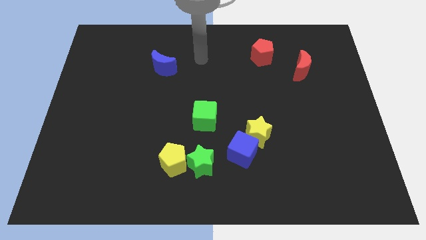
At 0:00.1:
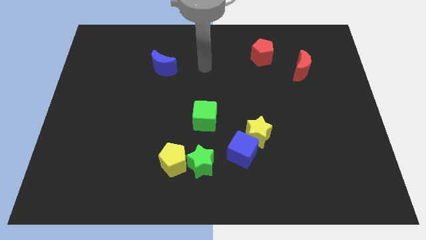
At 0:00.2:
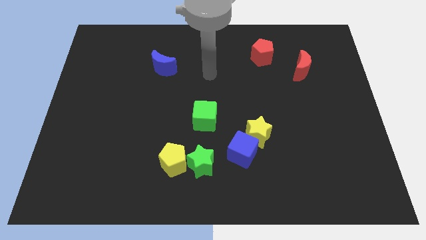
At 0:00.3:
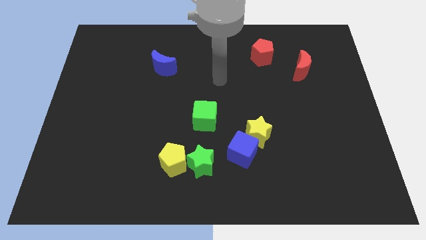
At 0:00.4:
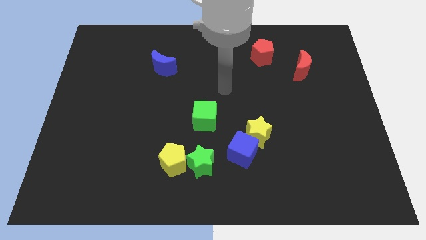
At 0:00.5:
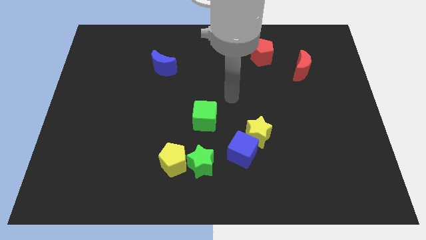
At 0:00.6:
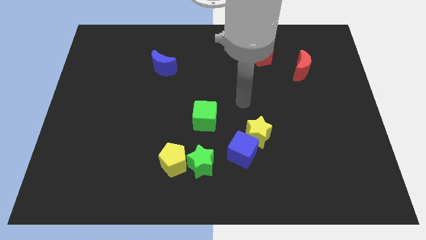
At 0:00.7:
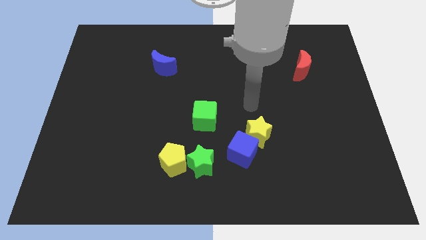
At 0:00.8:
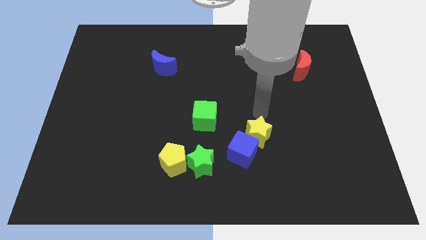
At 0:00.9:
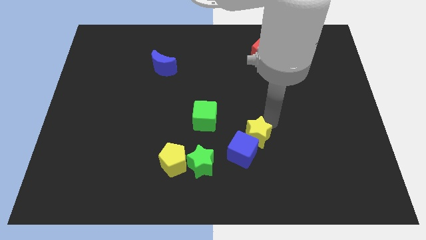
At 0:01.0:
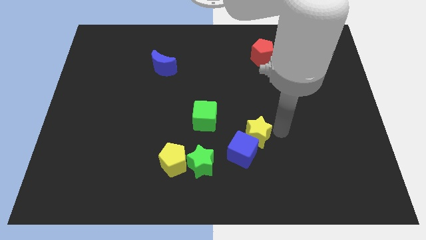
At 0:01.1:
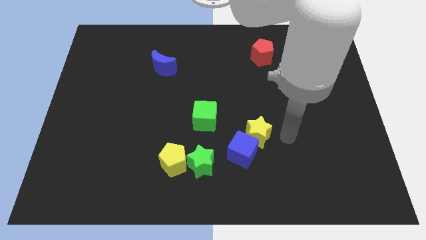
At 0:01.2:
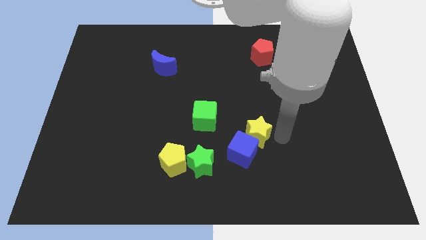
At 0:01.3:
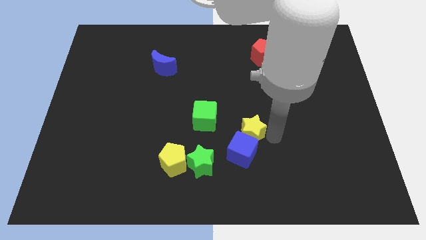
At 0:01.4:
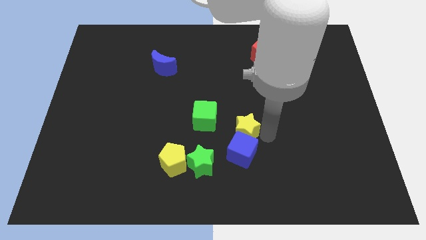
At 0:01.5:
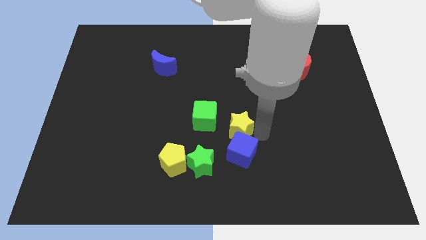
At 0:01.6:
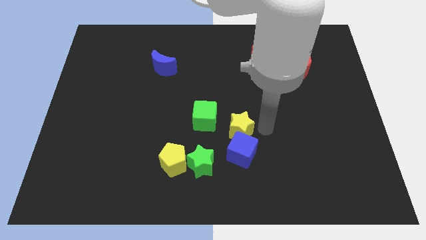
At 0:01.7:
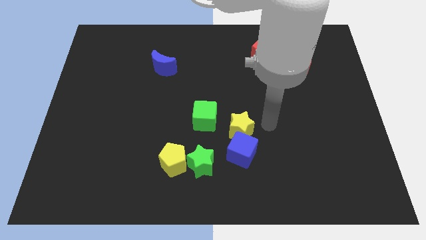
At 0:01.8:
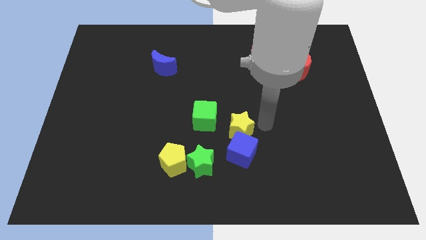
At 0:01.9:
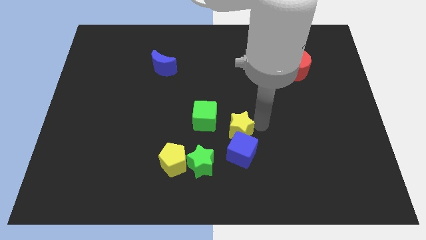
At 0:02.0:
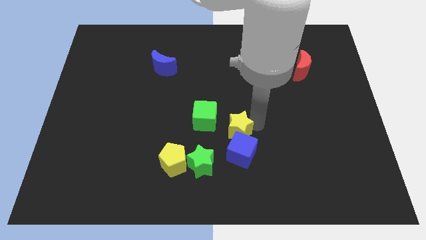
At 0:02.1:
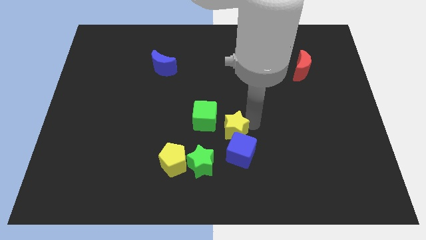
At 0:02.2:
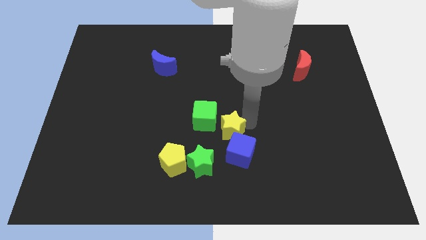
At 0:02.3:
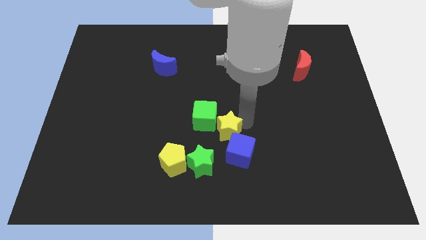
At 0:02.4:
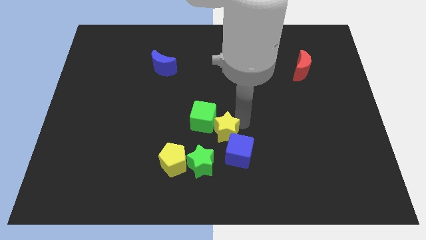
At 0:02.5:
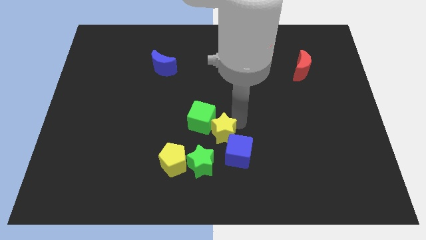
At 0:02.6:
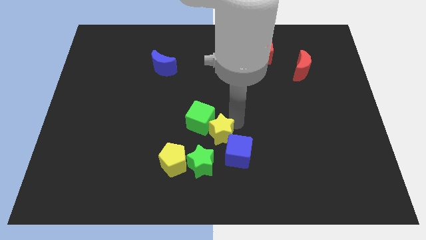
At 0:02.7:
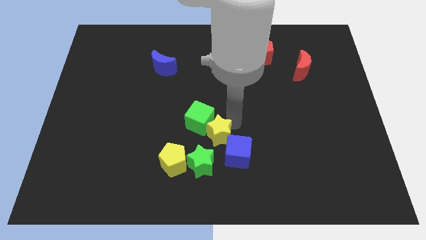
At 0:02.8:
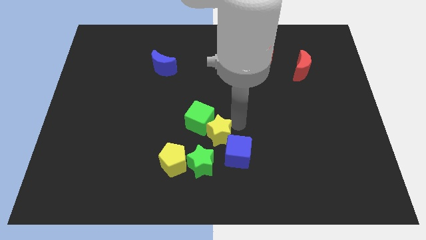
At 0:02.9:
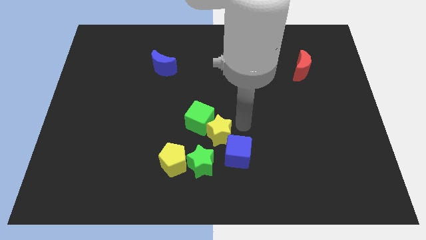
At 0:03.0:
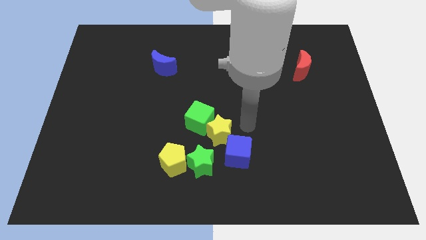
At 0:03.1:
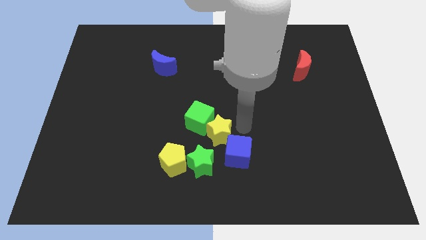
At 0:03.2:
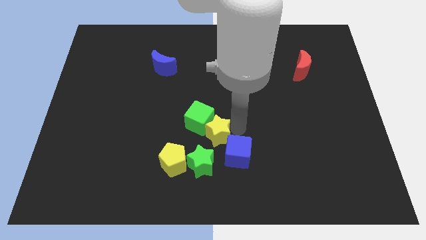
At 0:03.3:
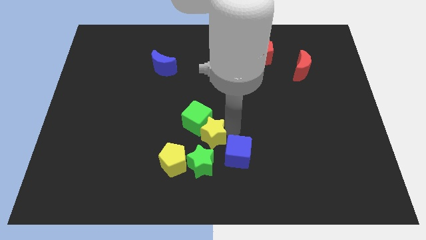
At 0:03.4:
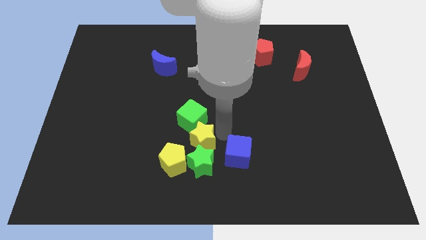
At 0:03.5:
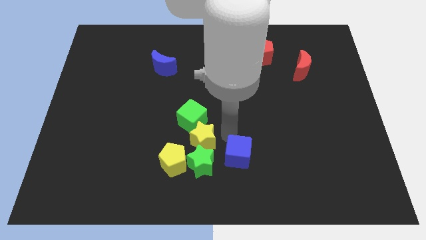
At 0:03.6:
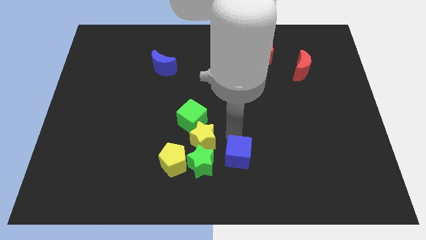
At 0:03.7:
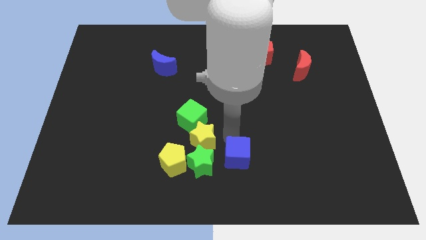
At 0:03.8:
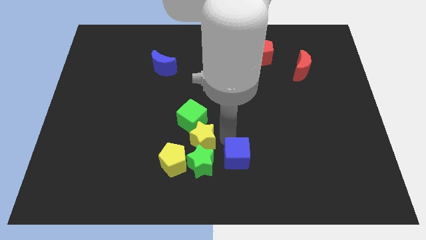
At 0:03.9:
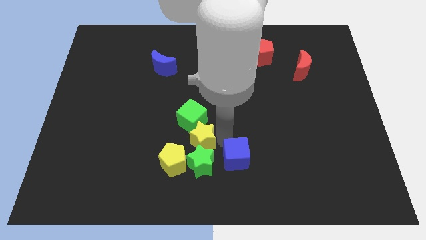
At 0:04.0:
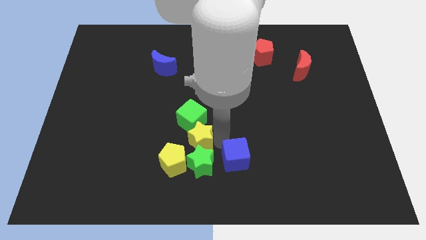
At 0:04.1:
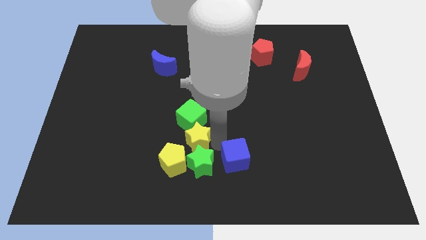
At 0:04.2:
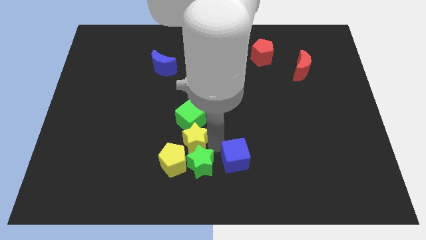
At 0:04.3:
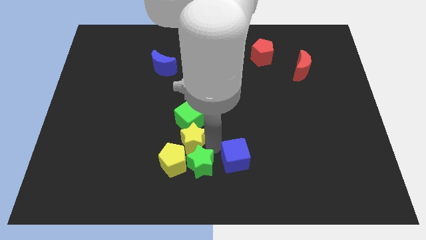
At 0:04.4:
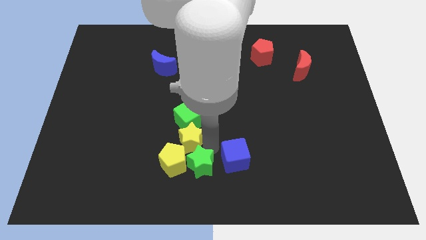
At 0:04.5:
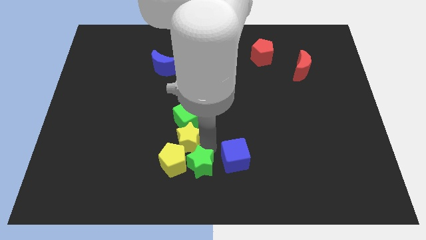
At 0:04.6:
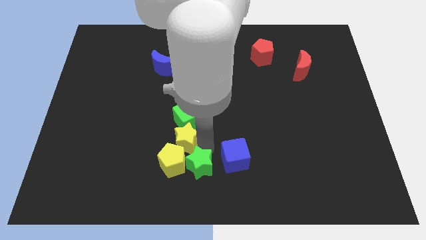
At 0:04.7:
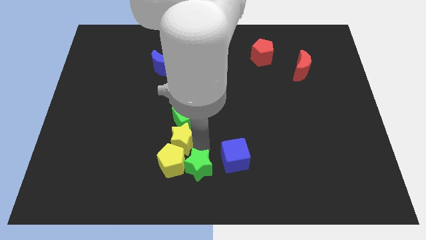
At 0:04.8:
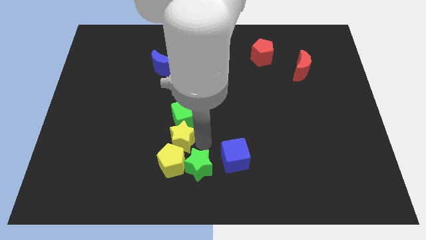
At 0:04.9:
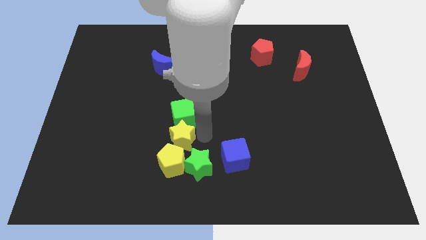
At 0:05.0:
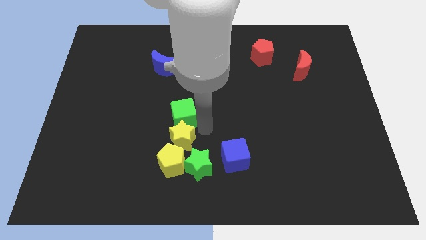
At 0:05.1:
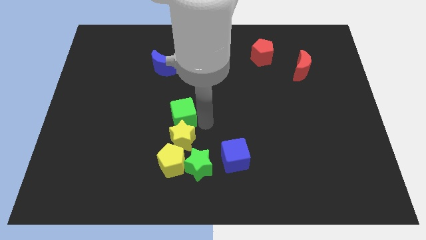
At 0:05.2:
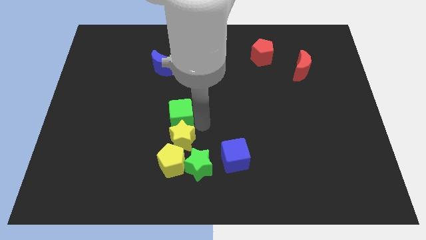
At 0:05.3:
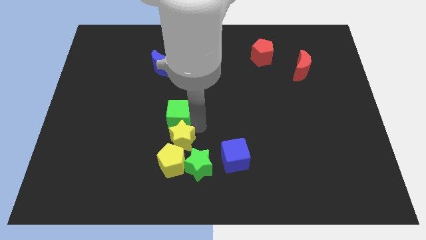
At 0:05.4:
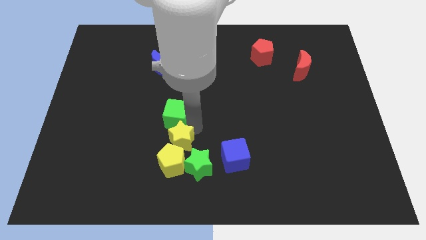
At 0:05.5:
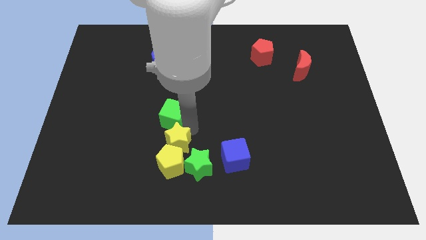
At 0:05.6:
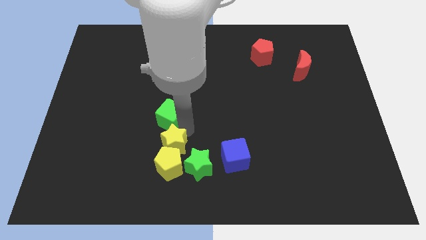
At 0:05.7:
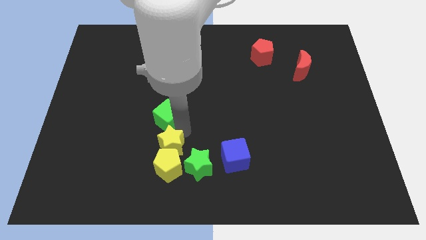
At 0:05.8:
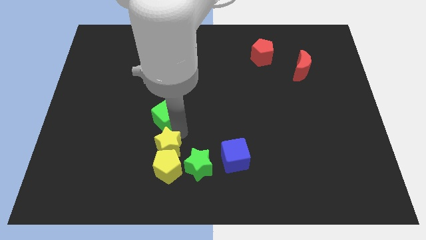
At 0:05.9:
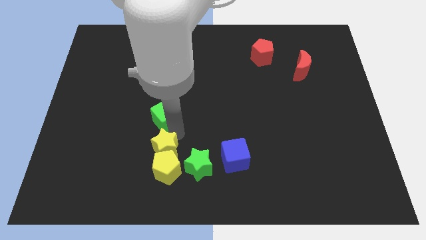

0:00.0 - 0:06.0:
move the yellow star to the left side of the green star
